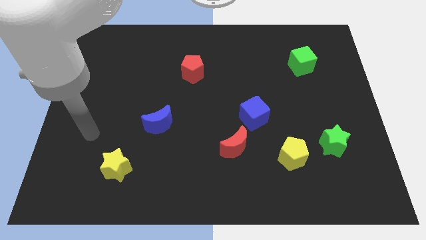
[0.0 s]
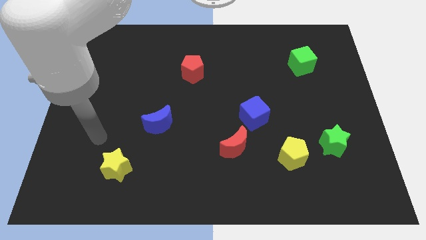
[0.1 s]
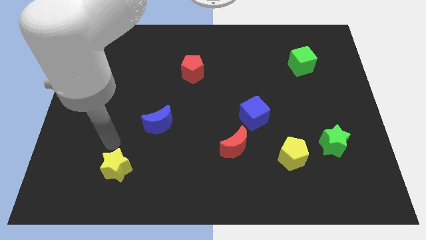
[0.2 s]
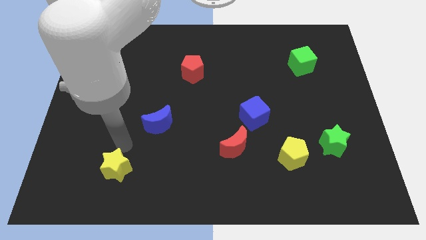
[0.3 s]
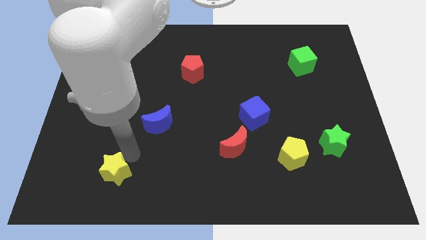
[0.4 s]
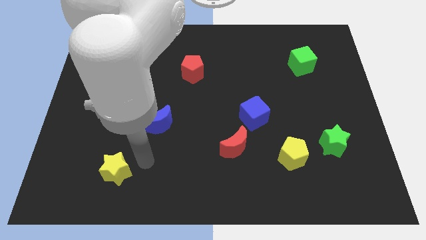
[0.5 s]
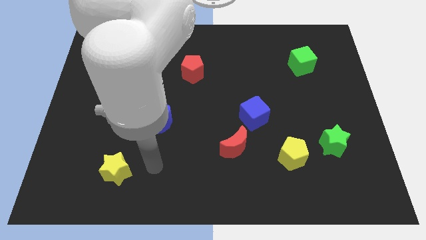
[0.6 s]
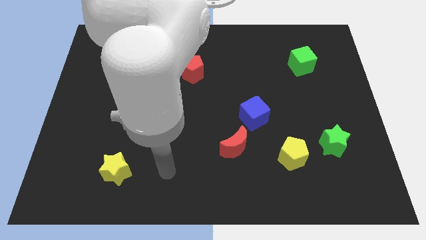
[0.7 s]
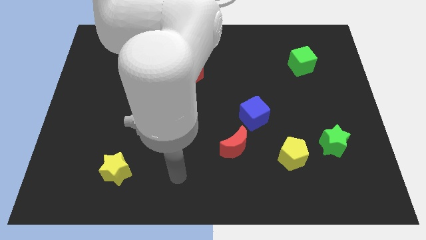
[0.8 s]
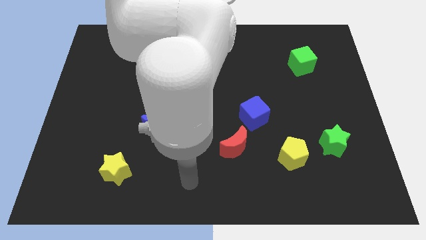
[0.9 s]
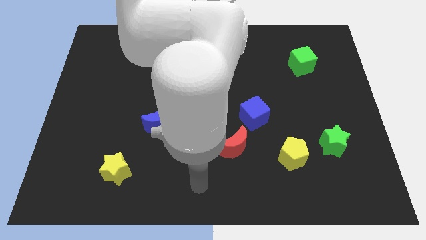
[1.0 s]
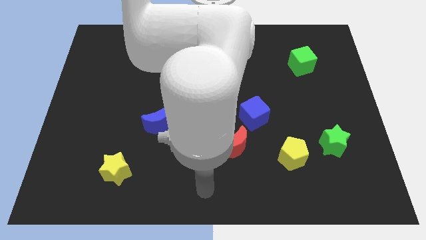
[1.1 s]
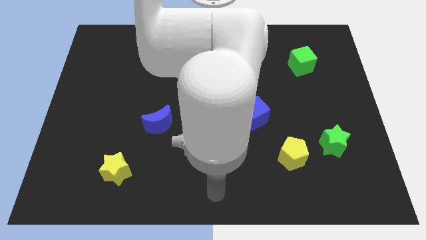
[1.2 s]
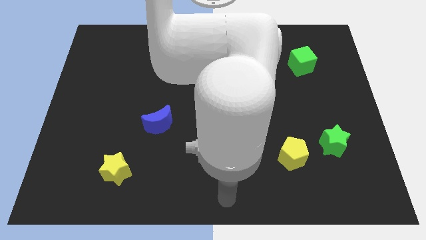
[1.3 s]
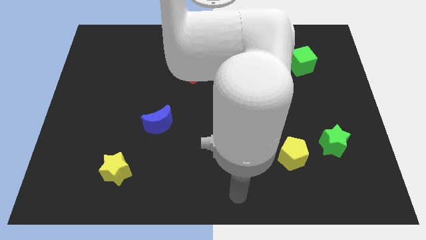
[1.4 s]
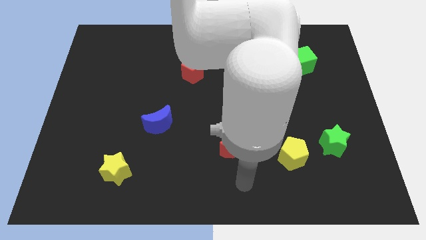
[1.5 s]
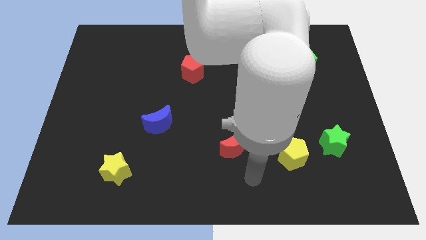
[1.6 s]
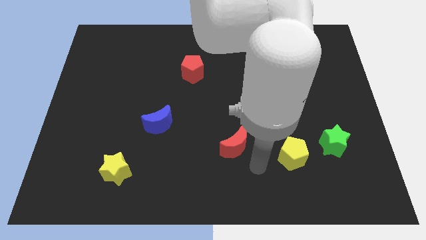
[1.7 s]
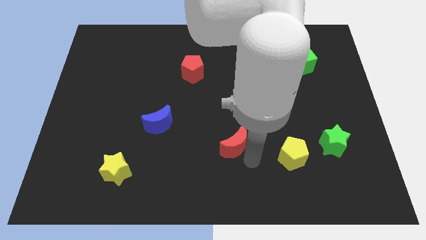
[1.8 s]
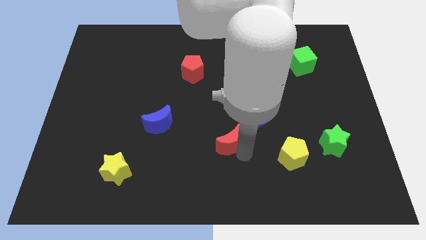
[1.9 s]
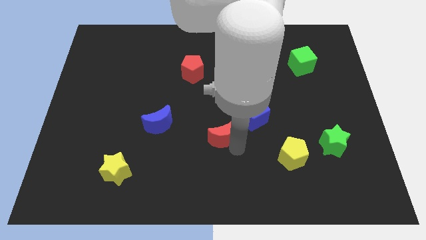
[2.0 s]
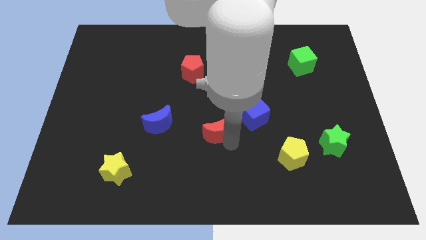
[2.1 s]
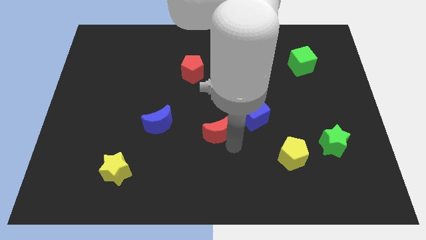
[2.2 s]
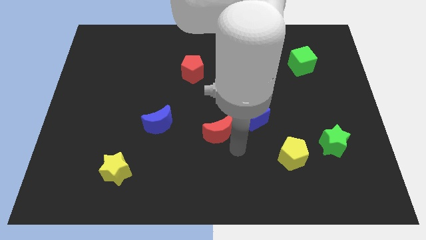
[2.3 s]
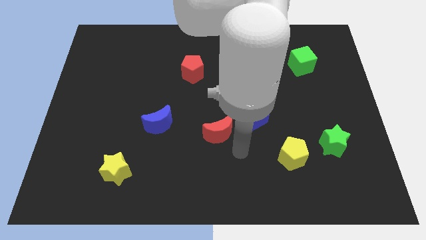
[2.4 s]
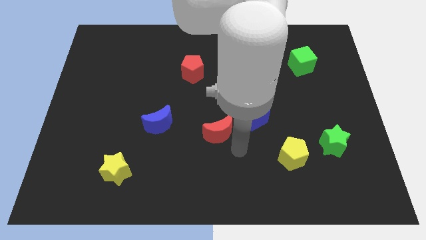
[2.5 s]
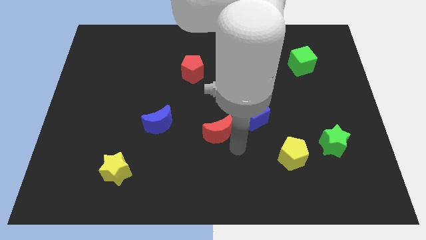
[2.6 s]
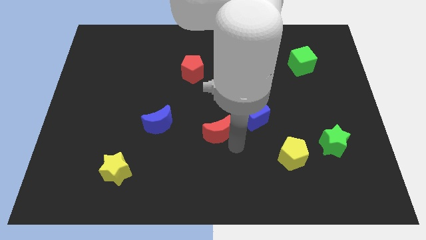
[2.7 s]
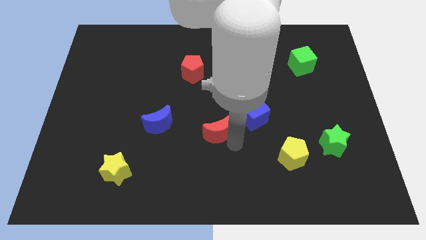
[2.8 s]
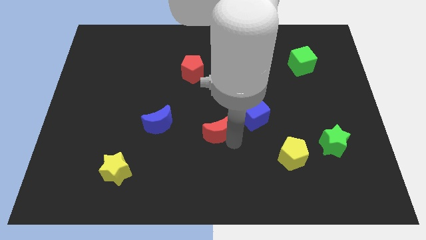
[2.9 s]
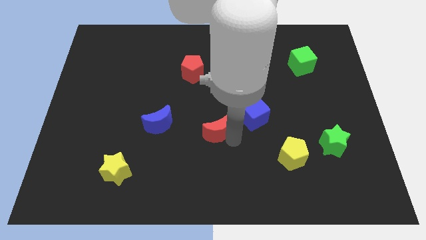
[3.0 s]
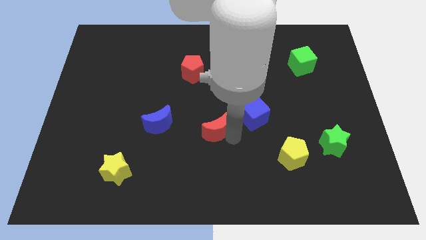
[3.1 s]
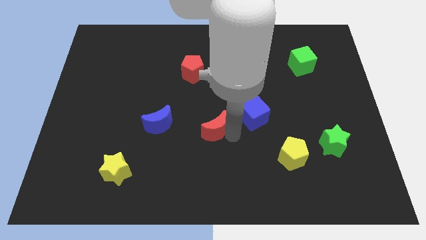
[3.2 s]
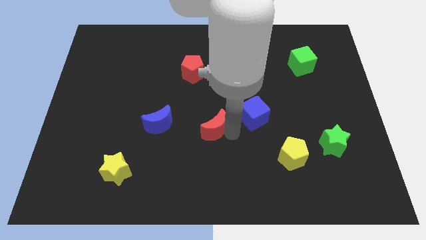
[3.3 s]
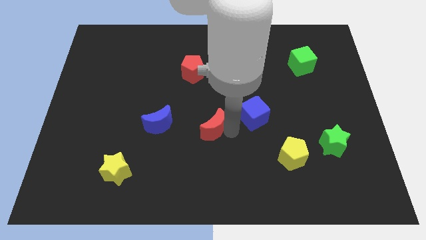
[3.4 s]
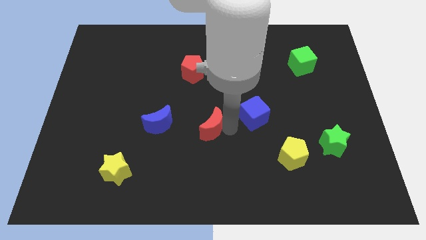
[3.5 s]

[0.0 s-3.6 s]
move the red moon up and then to the left slightly

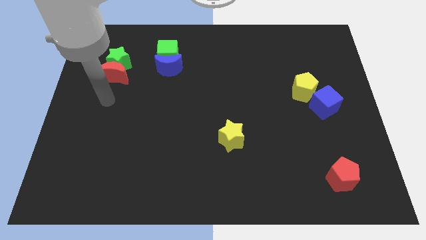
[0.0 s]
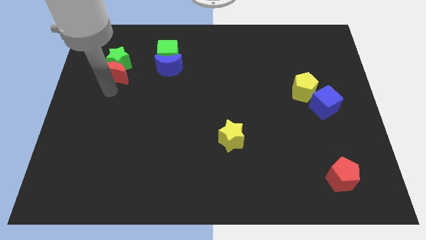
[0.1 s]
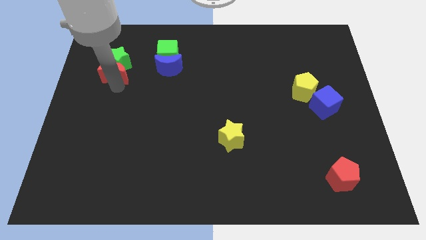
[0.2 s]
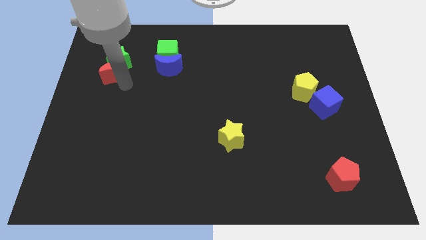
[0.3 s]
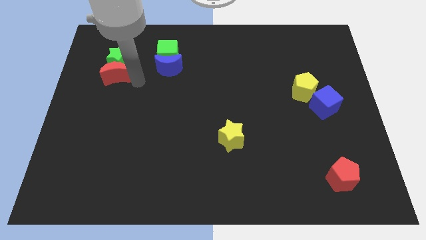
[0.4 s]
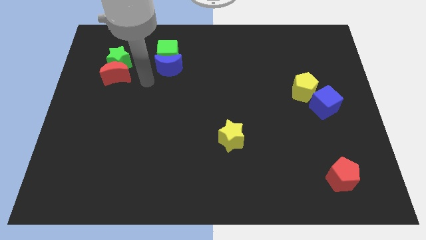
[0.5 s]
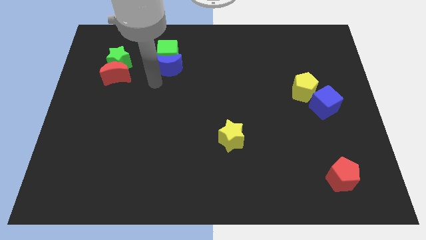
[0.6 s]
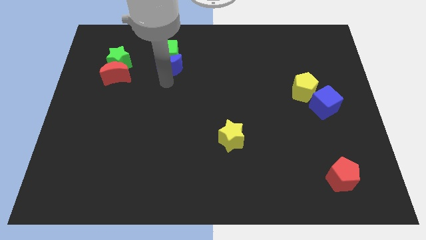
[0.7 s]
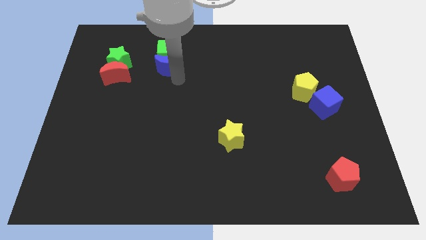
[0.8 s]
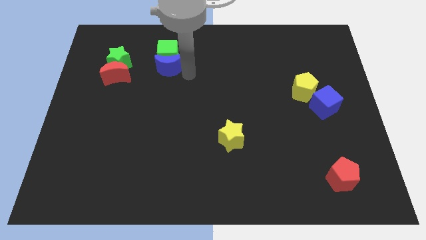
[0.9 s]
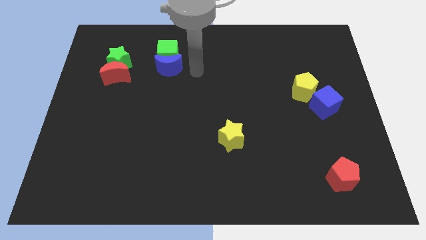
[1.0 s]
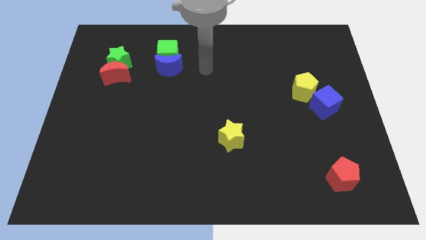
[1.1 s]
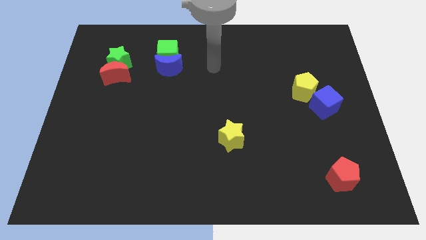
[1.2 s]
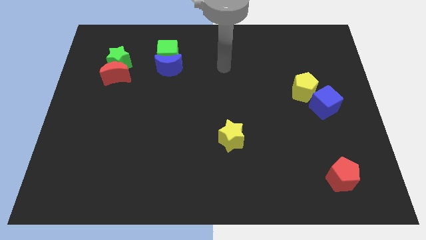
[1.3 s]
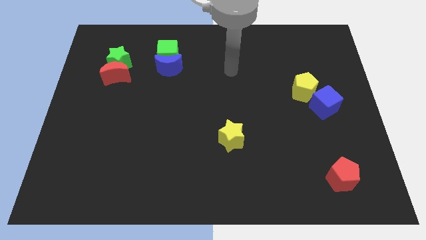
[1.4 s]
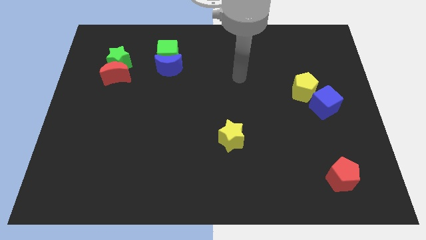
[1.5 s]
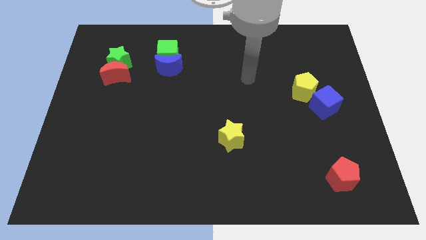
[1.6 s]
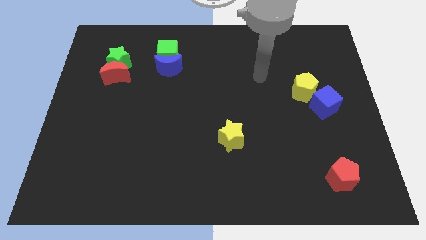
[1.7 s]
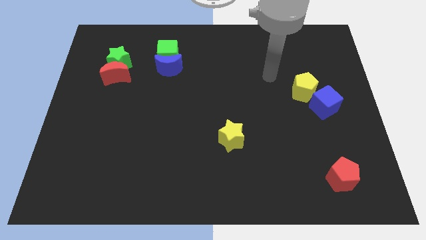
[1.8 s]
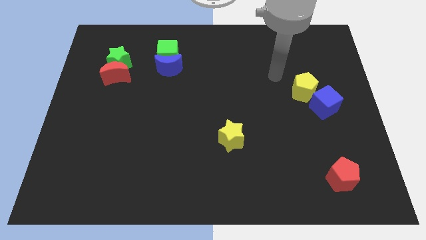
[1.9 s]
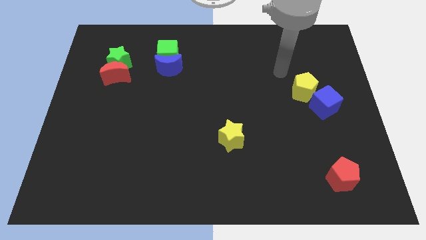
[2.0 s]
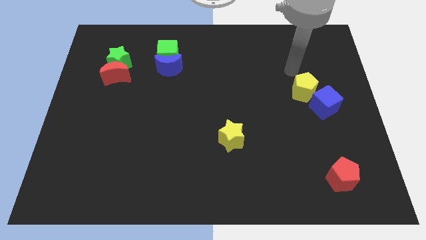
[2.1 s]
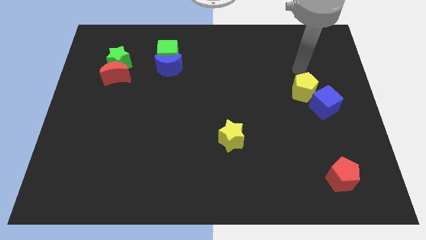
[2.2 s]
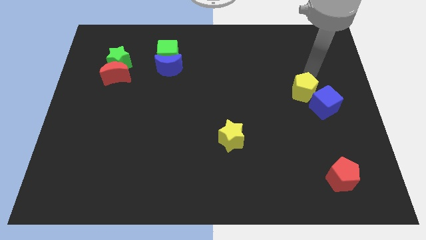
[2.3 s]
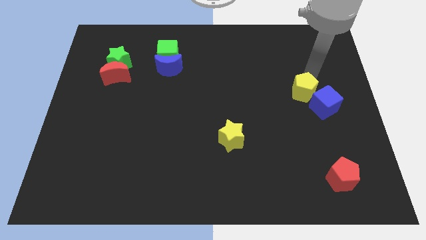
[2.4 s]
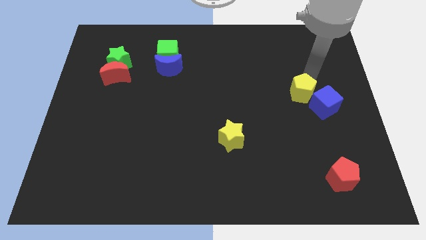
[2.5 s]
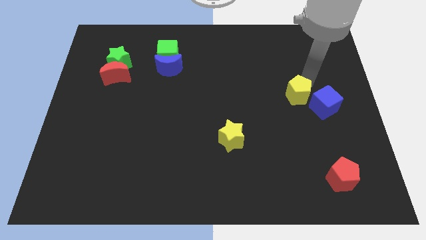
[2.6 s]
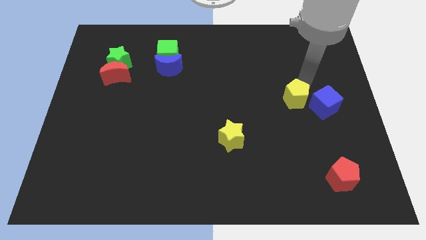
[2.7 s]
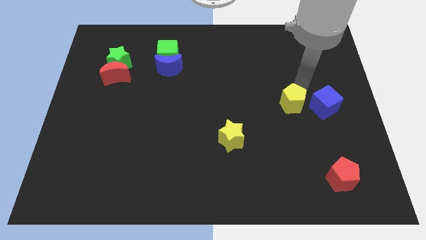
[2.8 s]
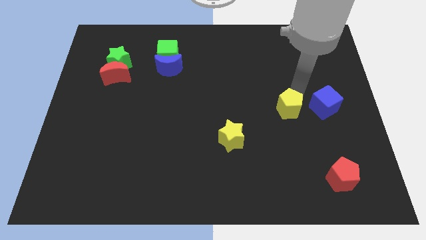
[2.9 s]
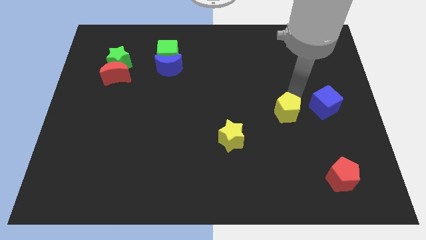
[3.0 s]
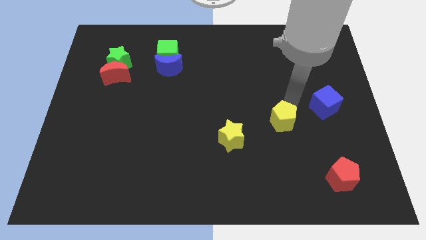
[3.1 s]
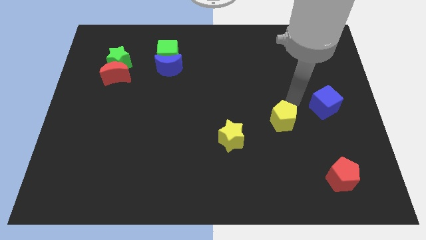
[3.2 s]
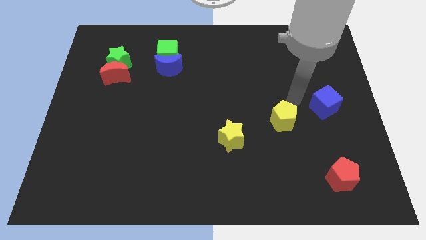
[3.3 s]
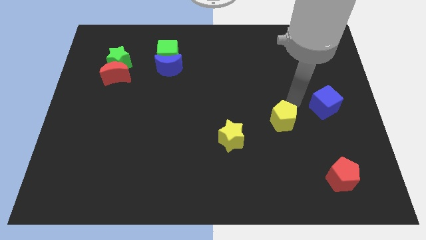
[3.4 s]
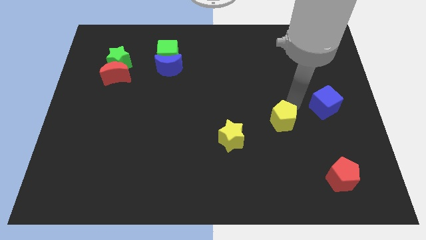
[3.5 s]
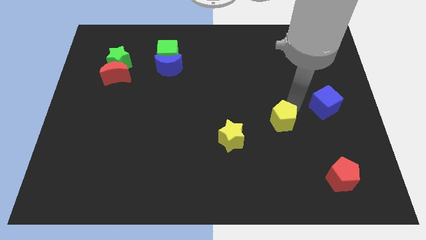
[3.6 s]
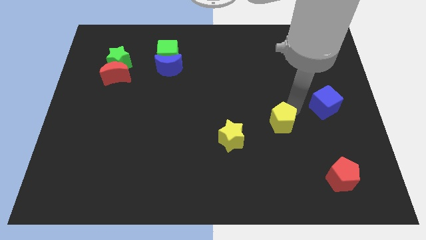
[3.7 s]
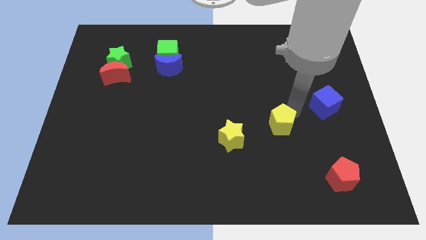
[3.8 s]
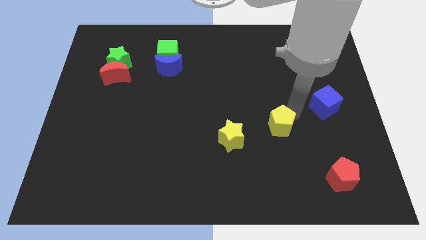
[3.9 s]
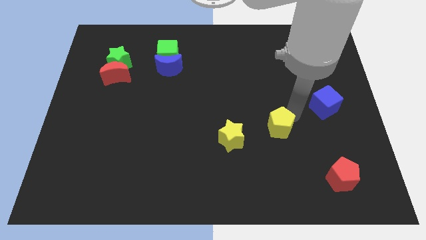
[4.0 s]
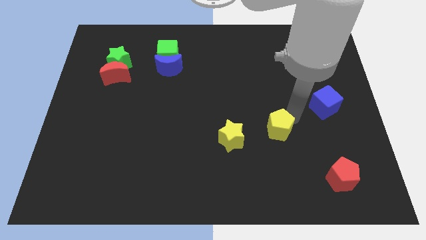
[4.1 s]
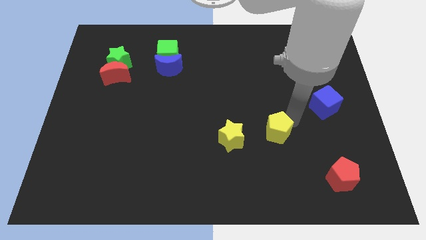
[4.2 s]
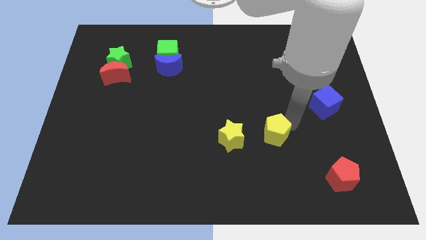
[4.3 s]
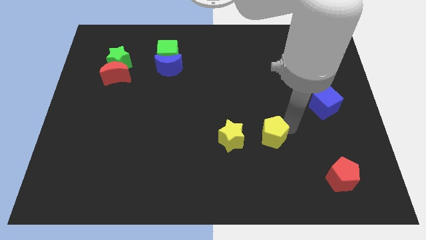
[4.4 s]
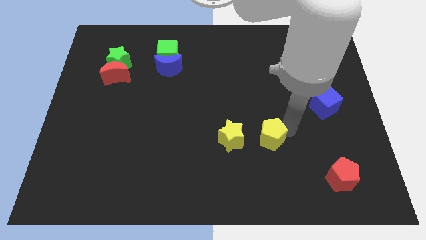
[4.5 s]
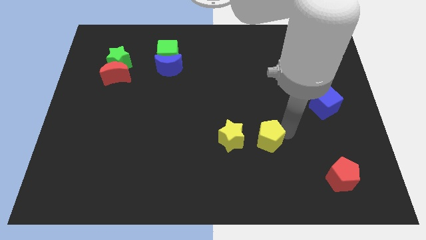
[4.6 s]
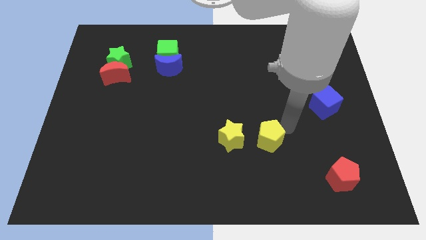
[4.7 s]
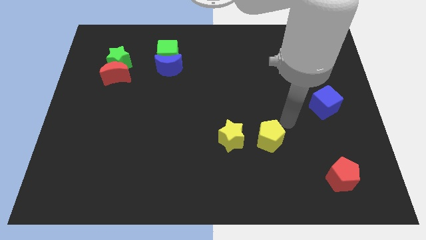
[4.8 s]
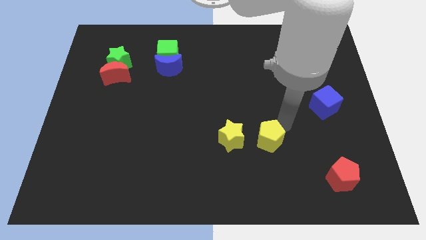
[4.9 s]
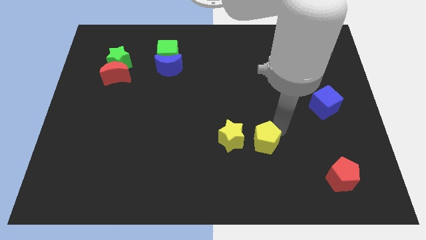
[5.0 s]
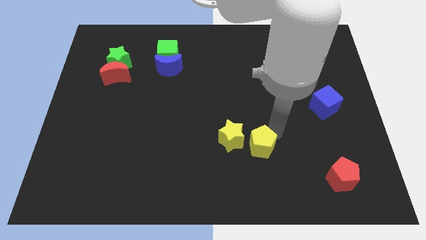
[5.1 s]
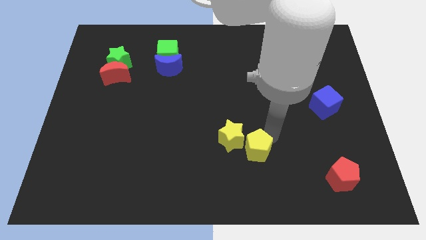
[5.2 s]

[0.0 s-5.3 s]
push the yellow pentagon downwards and to the left diagonally
